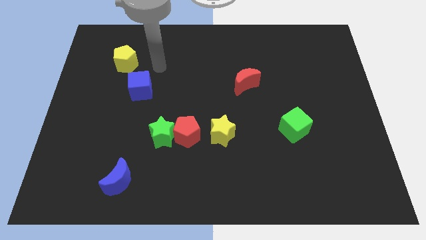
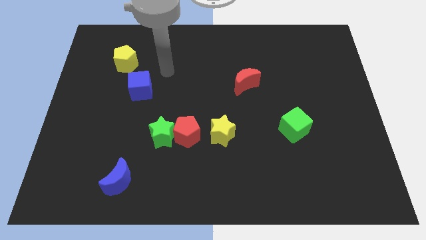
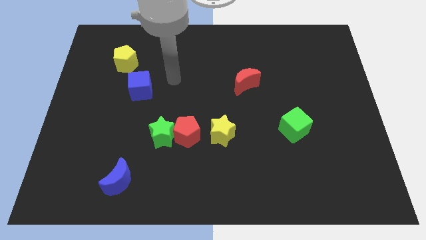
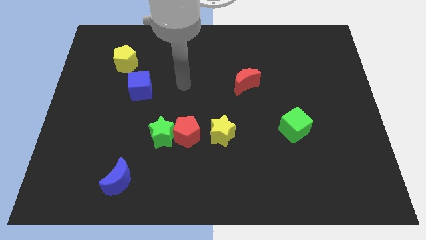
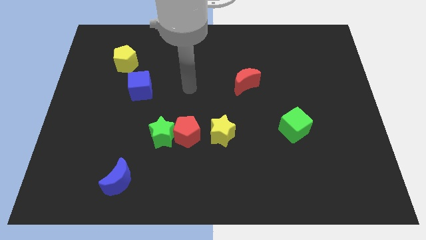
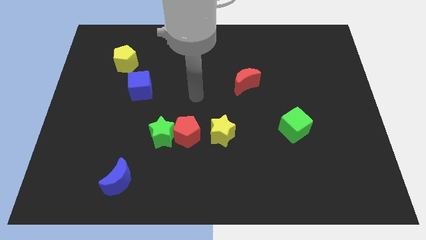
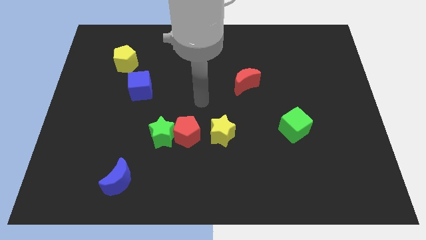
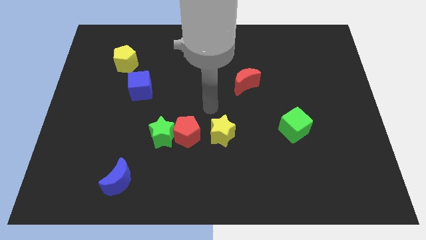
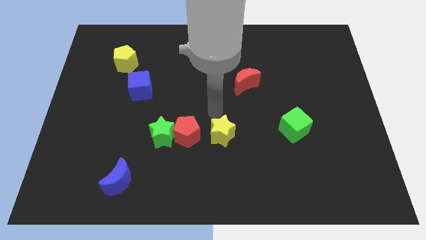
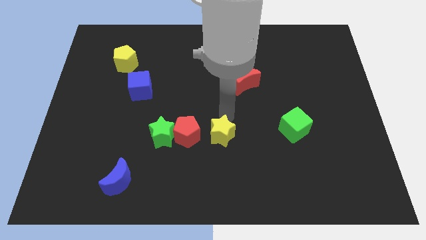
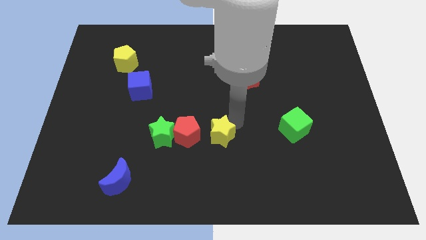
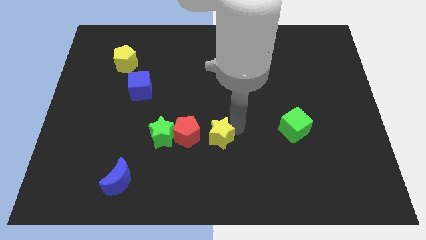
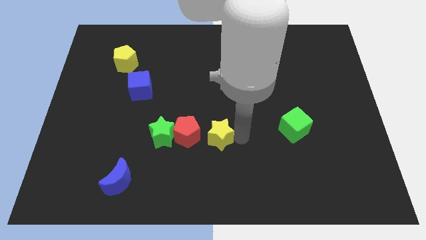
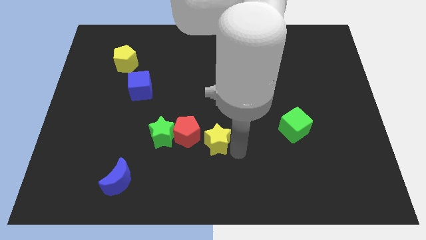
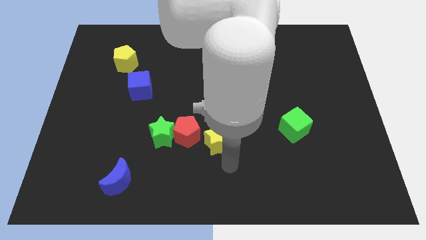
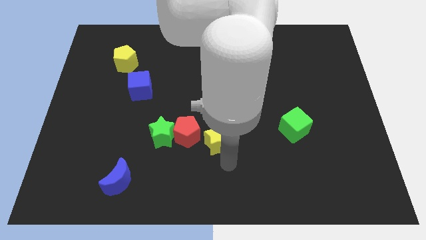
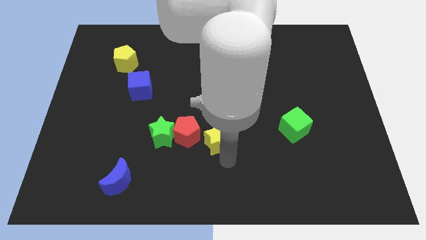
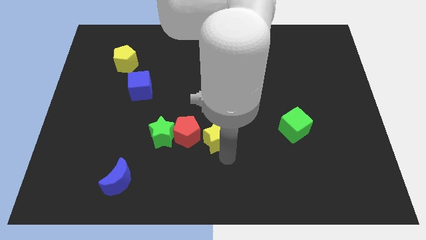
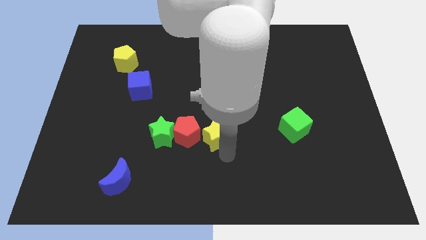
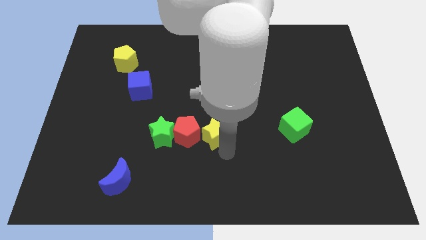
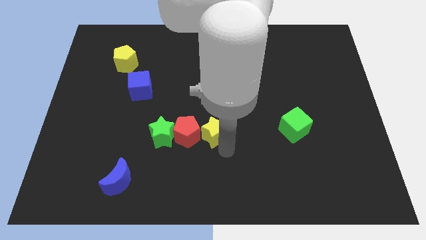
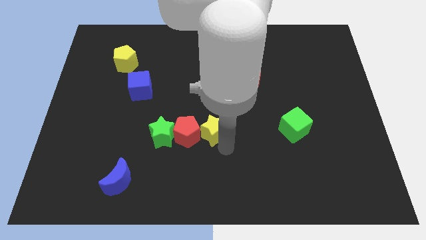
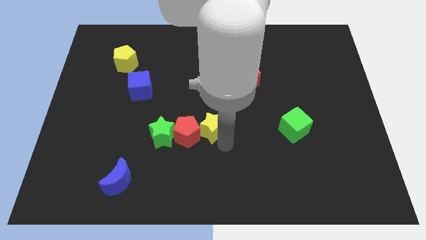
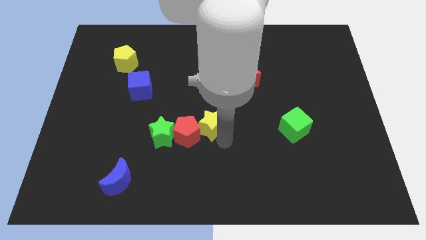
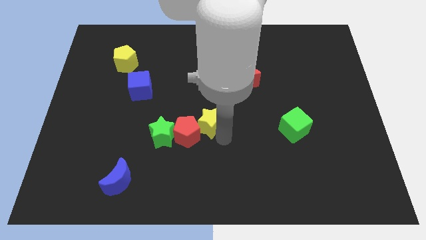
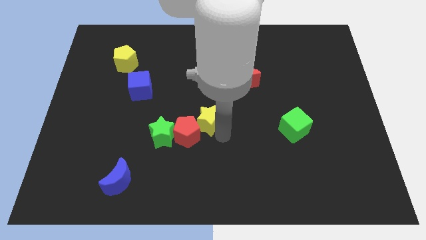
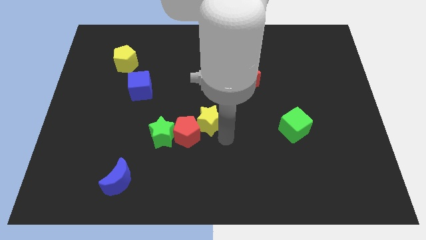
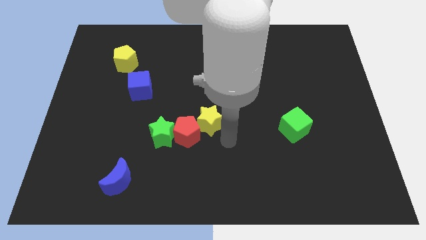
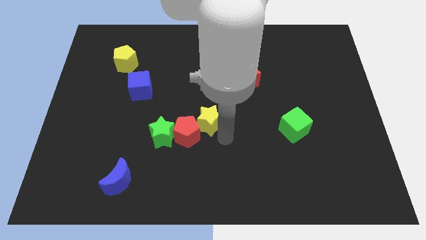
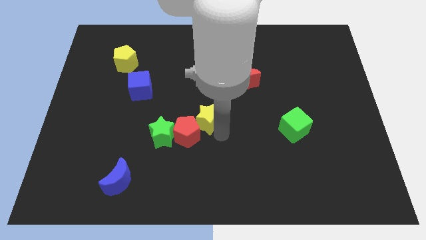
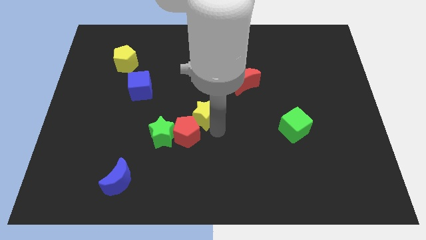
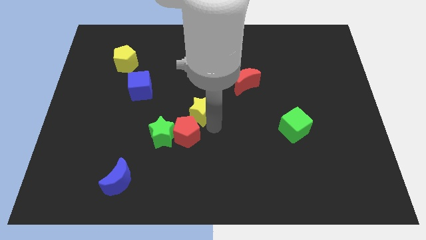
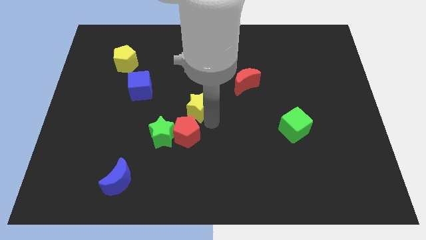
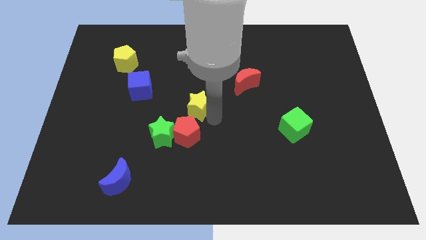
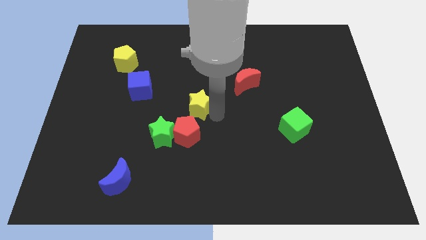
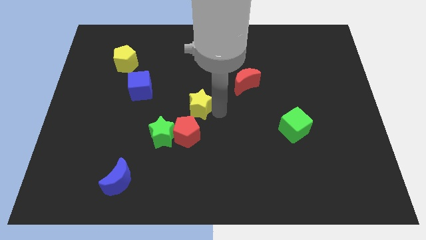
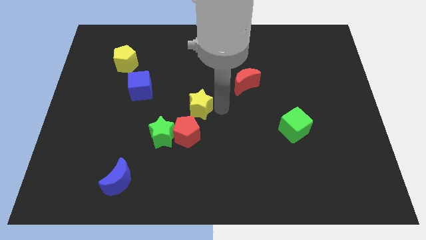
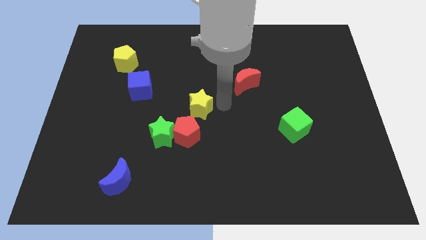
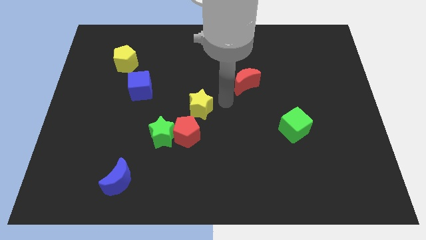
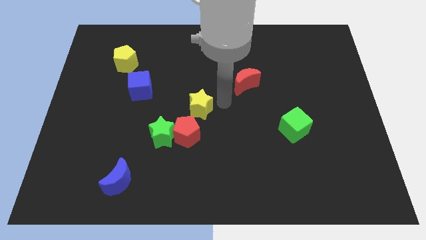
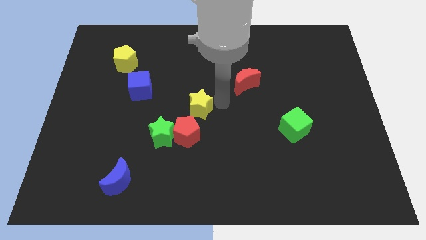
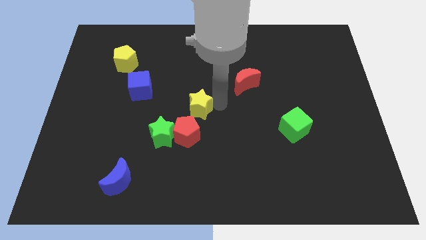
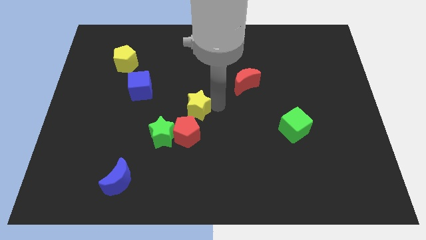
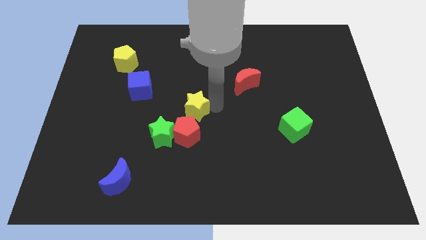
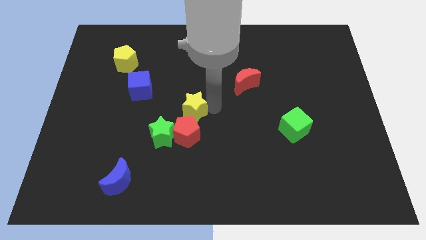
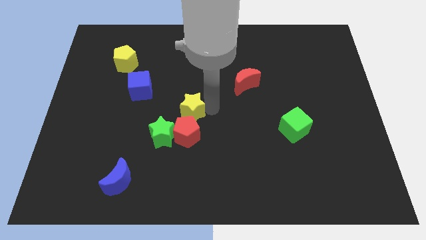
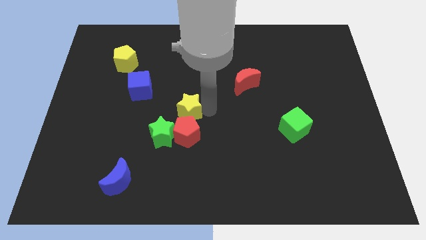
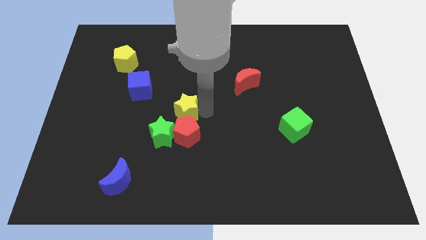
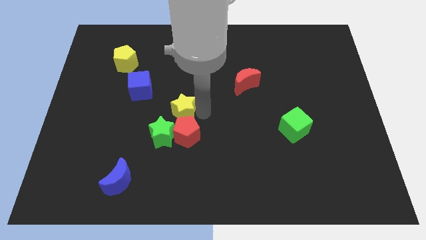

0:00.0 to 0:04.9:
slightly slide the yellow star left

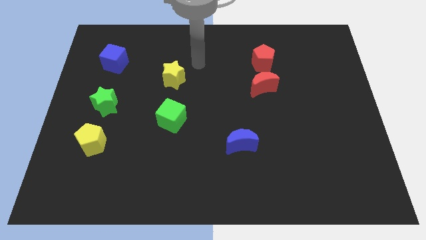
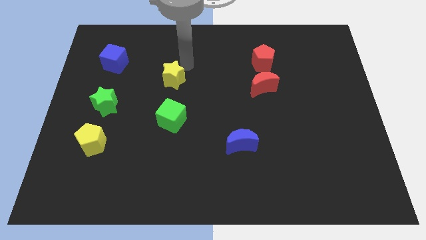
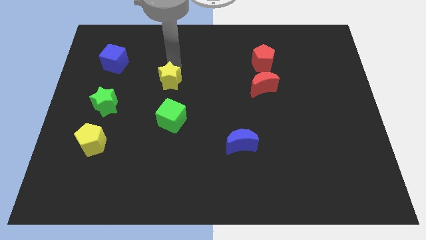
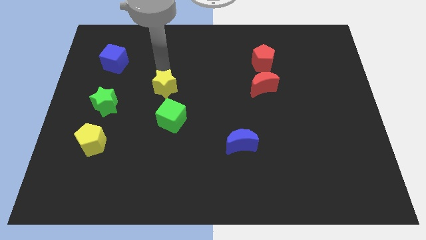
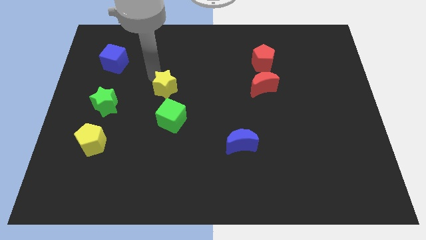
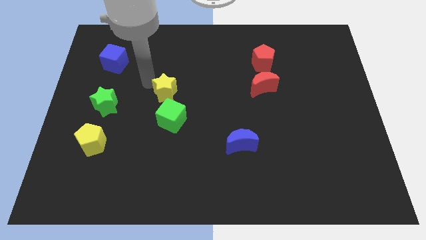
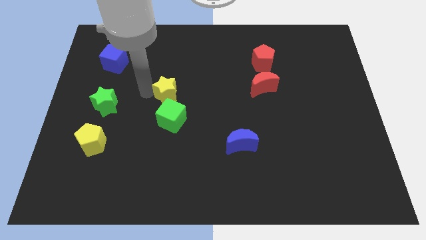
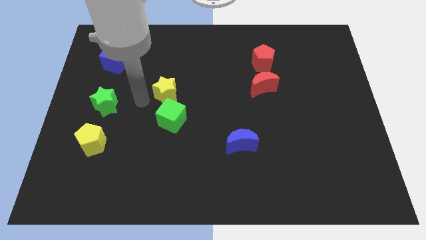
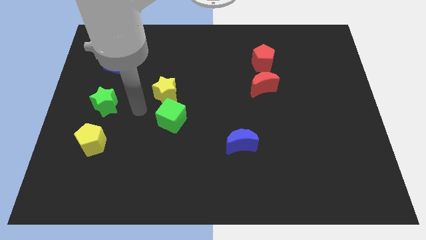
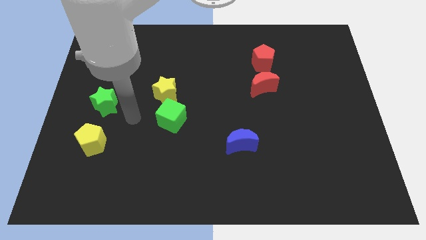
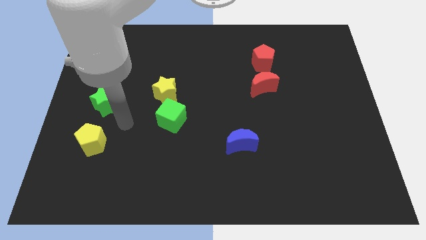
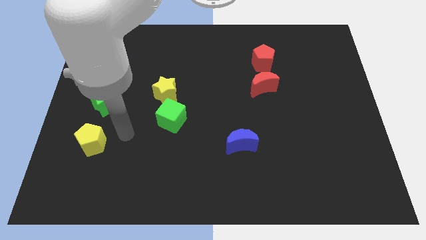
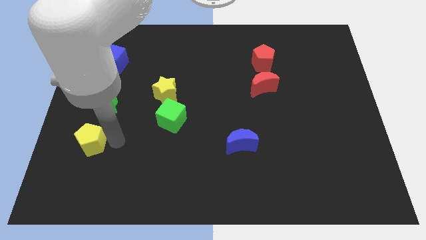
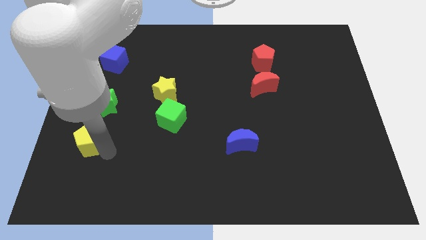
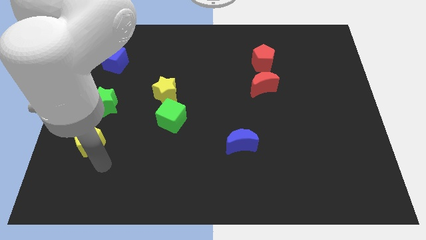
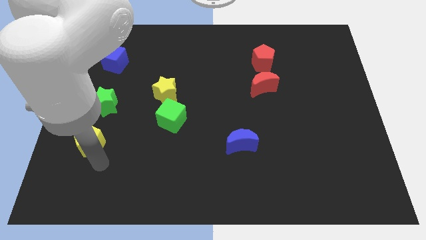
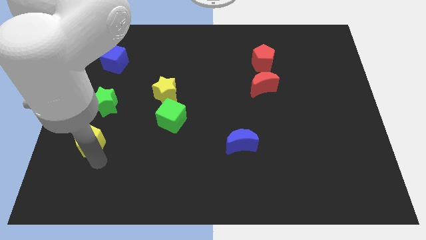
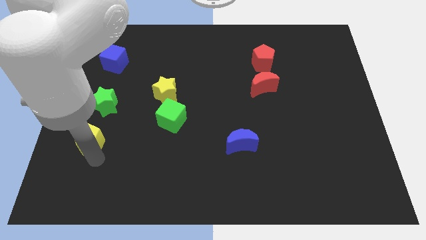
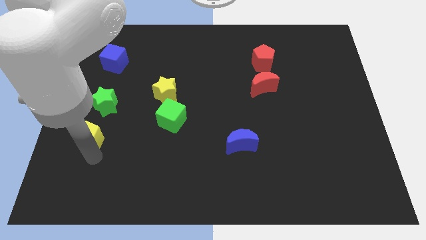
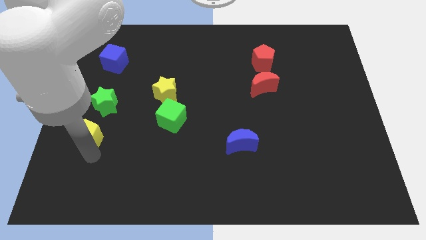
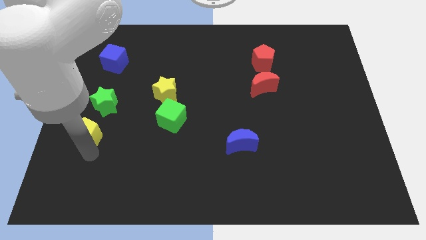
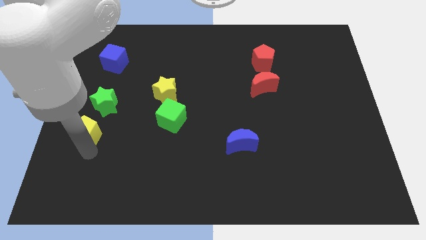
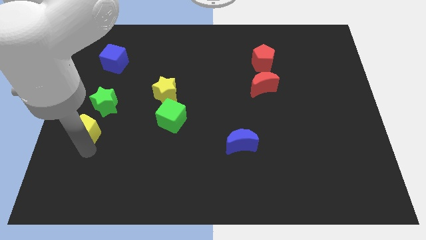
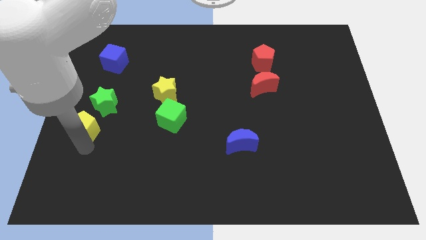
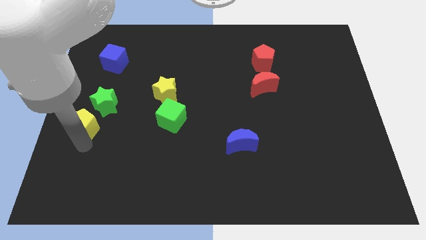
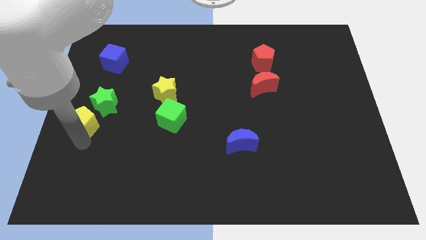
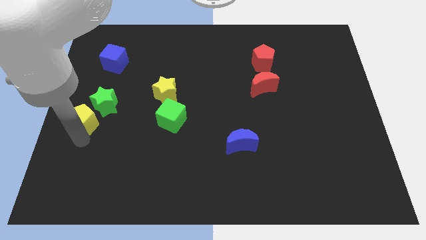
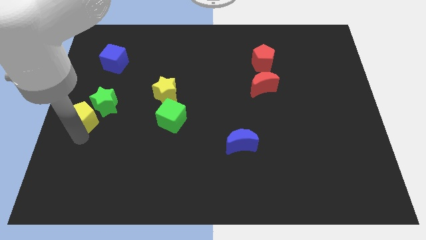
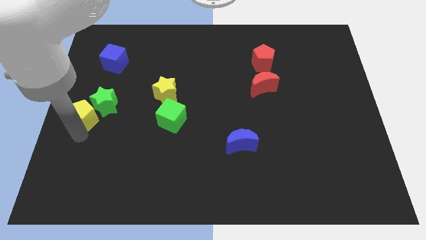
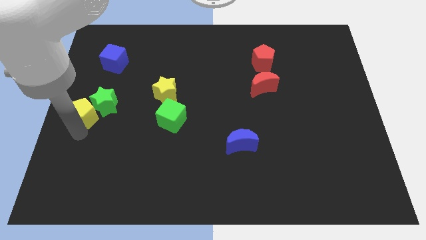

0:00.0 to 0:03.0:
move the yellow pentagon a little bit upwards

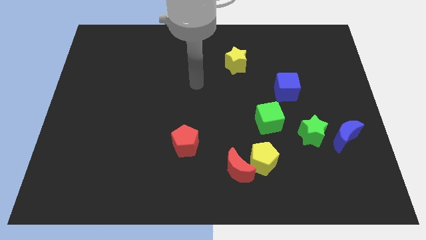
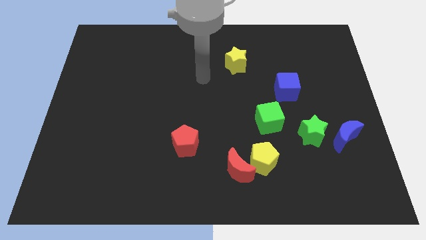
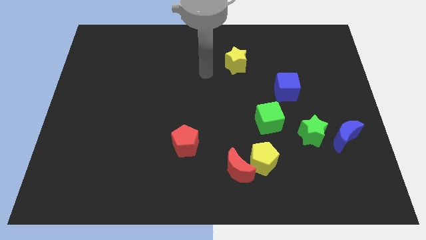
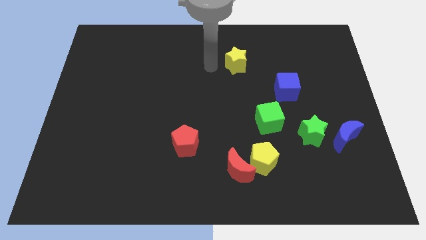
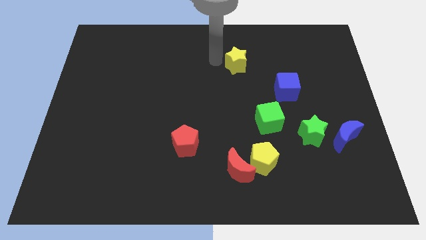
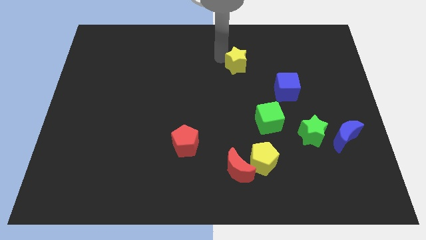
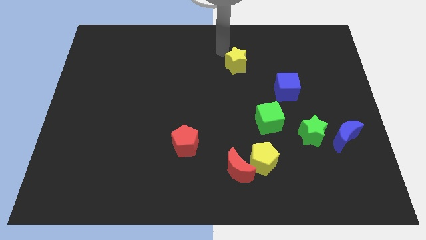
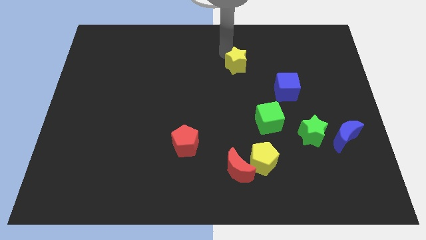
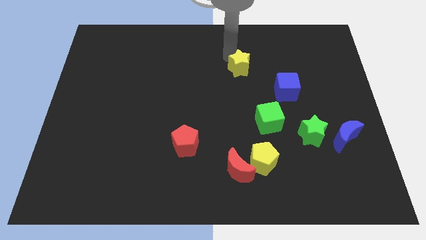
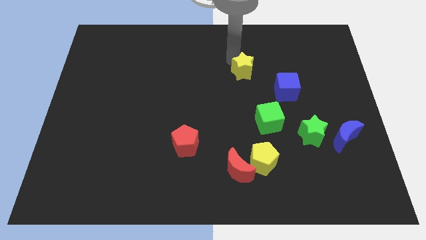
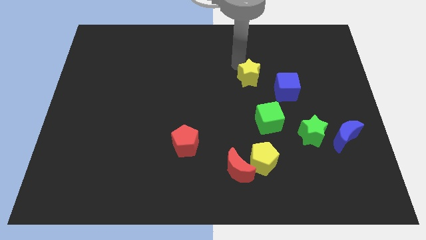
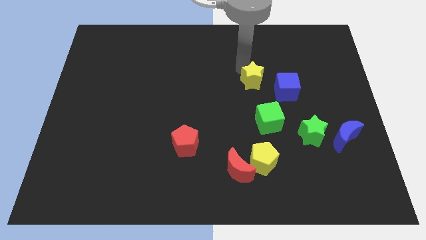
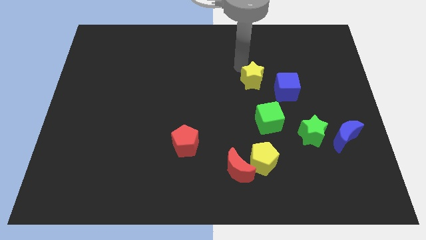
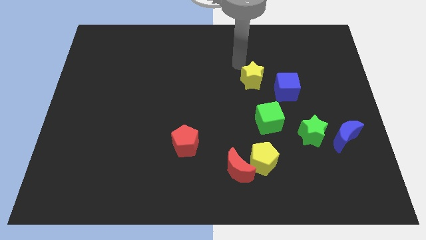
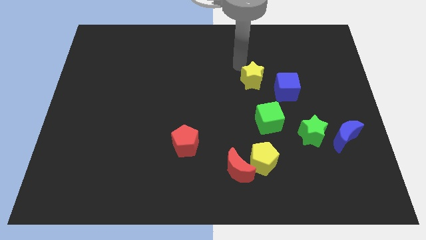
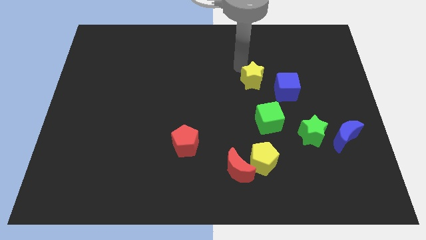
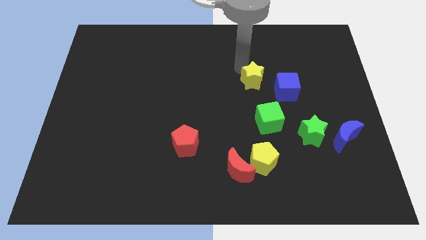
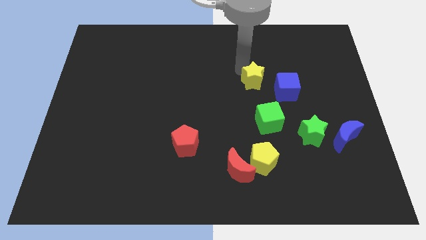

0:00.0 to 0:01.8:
slide the yellow star diagonally down and right slightly
